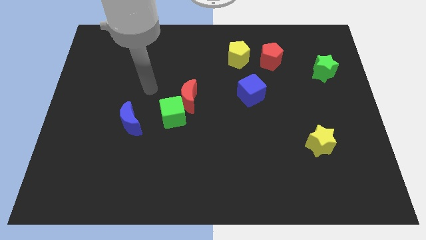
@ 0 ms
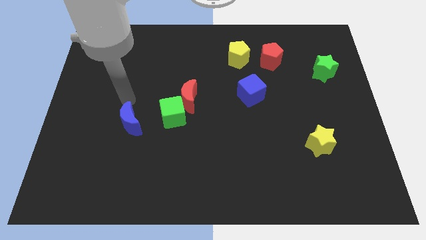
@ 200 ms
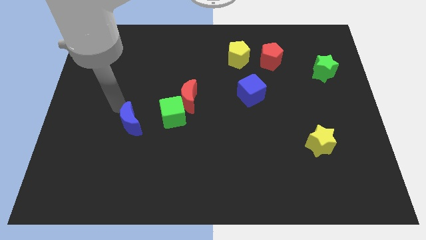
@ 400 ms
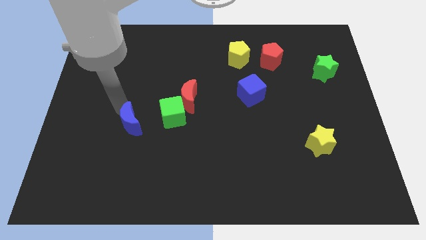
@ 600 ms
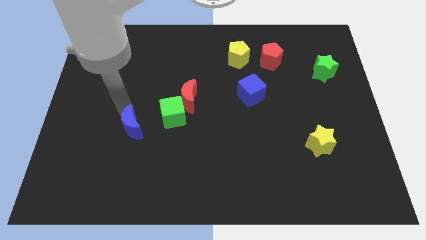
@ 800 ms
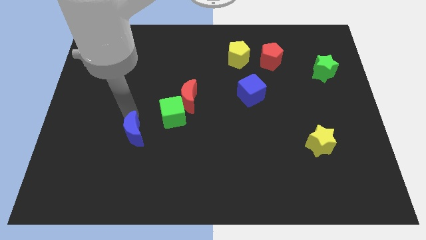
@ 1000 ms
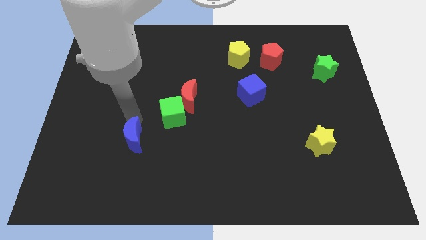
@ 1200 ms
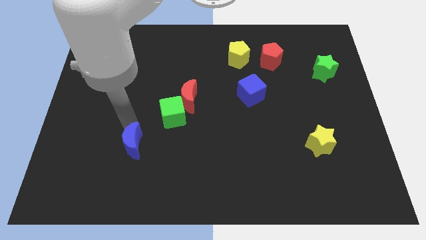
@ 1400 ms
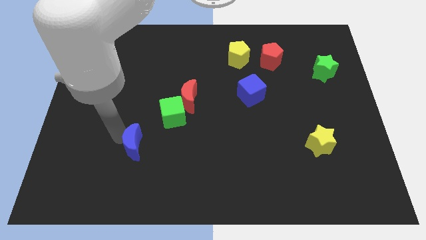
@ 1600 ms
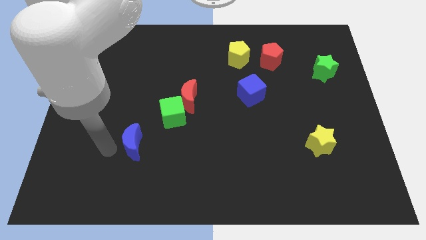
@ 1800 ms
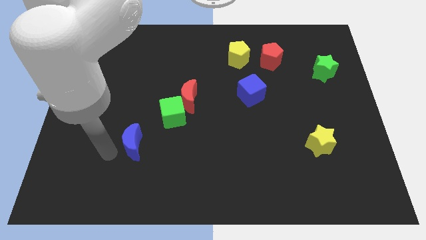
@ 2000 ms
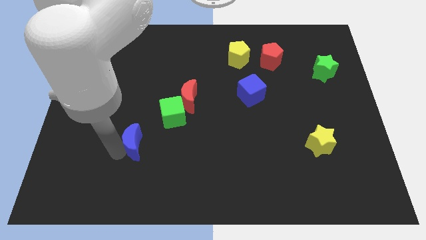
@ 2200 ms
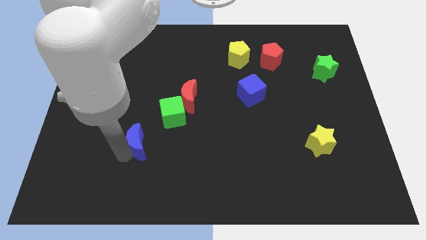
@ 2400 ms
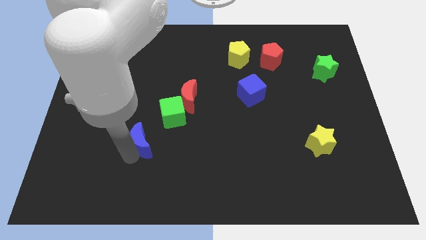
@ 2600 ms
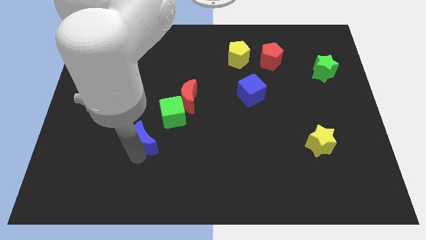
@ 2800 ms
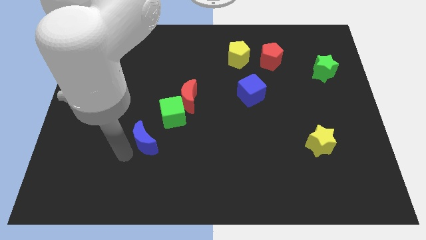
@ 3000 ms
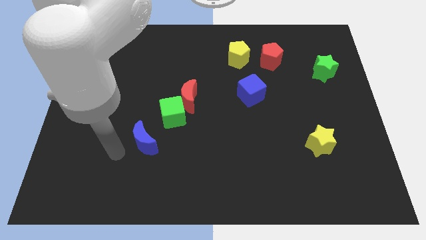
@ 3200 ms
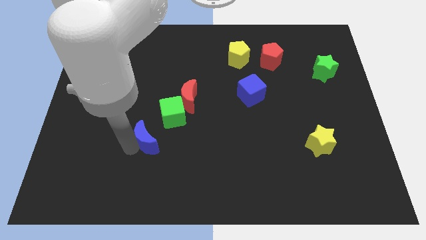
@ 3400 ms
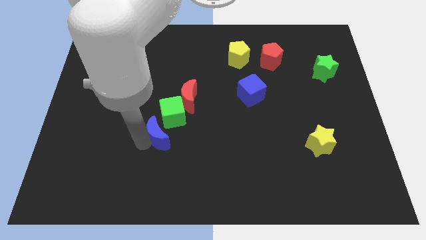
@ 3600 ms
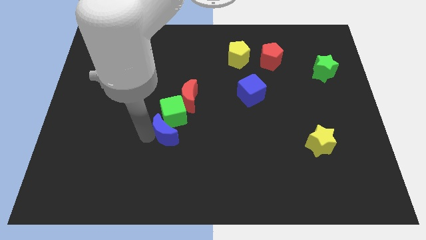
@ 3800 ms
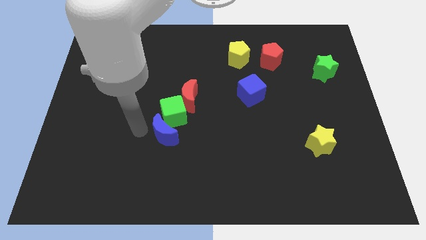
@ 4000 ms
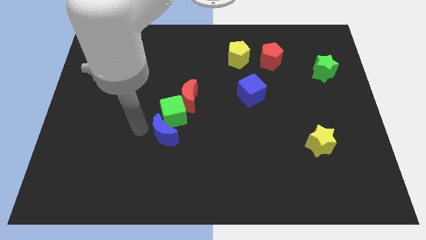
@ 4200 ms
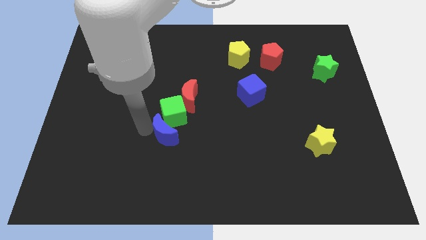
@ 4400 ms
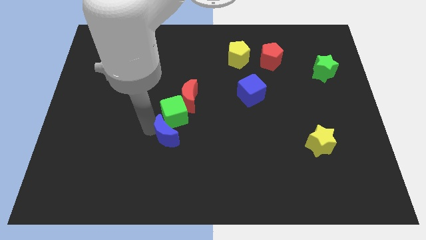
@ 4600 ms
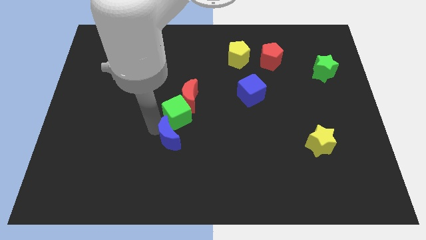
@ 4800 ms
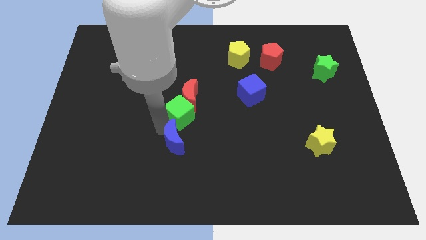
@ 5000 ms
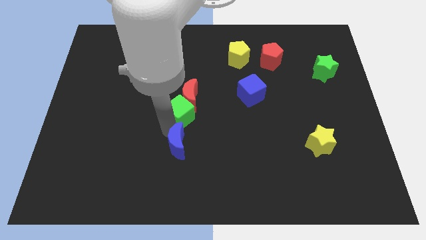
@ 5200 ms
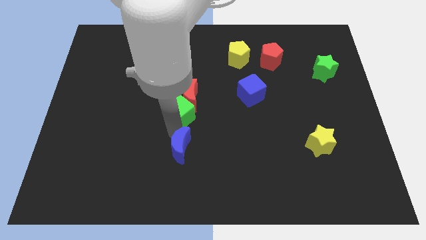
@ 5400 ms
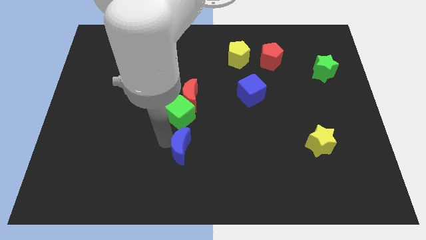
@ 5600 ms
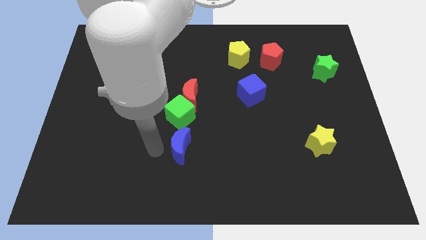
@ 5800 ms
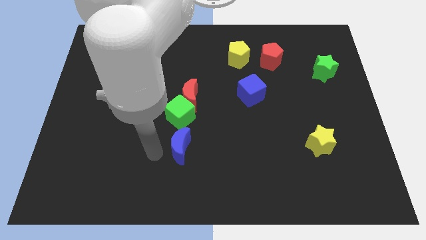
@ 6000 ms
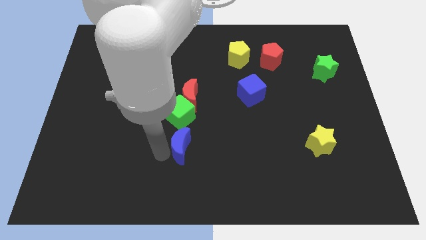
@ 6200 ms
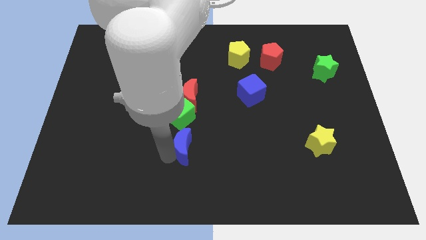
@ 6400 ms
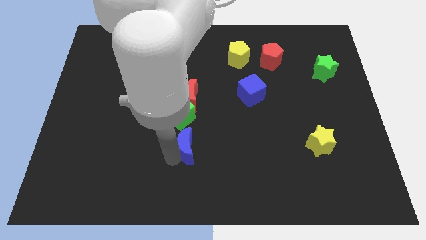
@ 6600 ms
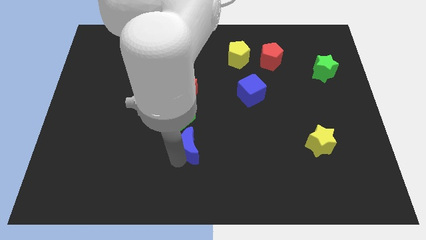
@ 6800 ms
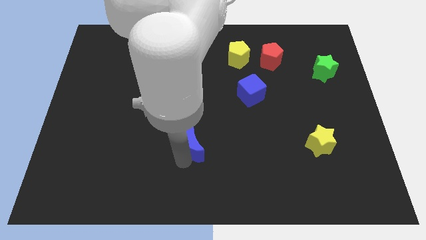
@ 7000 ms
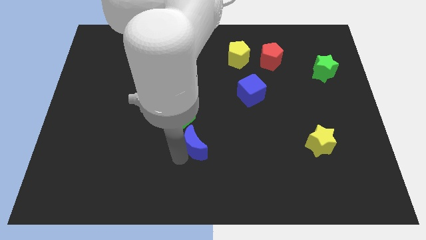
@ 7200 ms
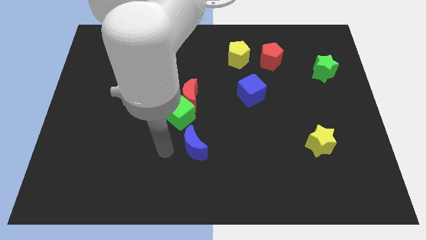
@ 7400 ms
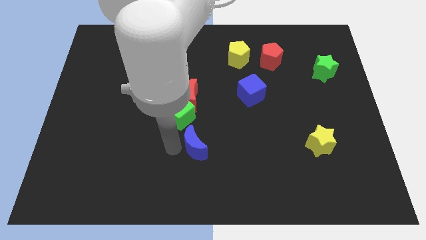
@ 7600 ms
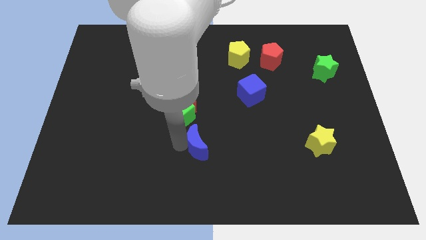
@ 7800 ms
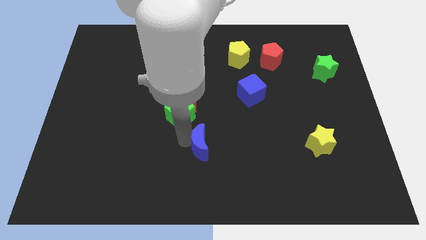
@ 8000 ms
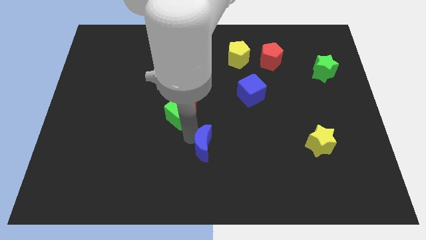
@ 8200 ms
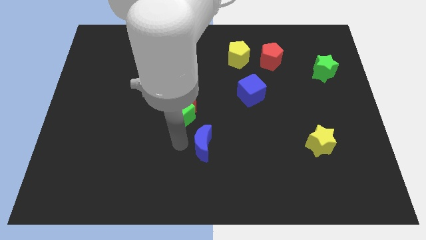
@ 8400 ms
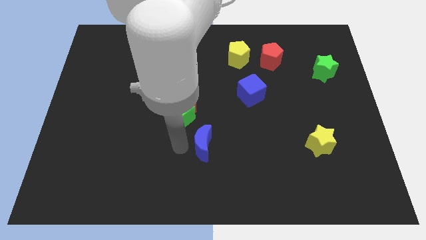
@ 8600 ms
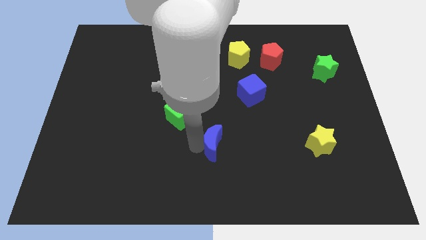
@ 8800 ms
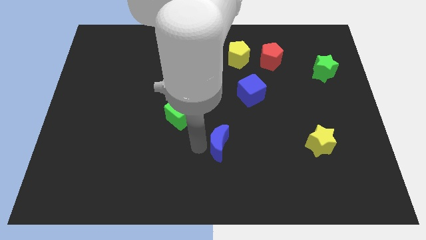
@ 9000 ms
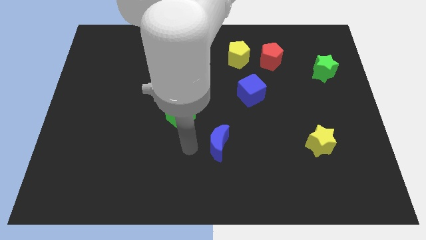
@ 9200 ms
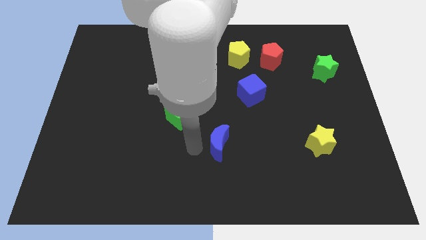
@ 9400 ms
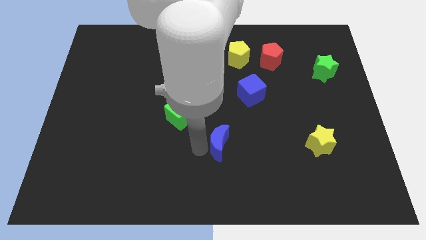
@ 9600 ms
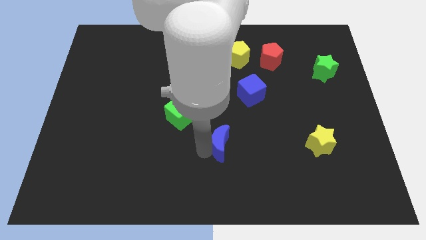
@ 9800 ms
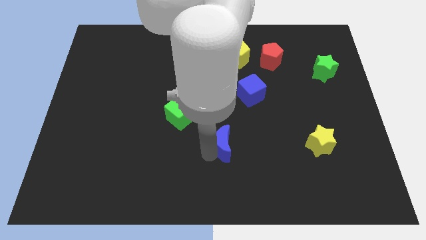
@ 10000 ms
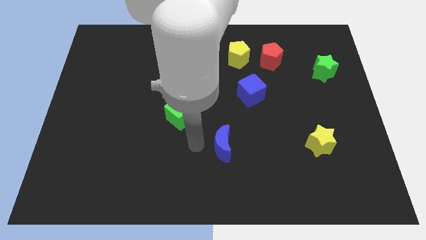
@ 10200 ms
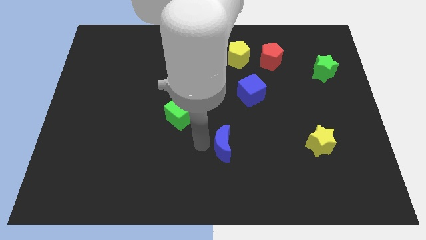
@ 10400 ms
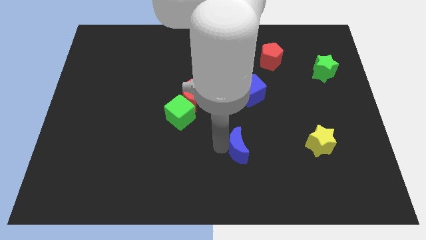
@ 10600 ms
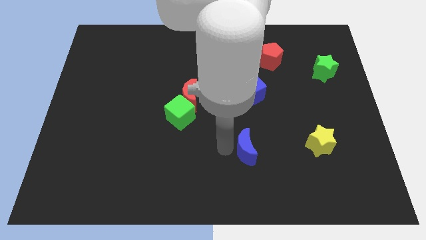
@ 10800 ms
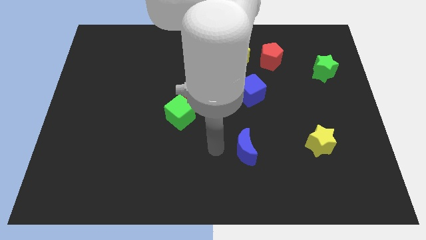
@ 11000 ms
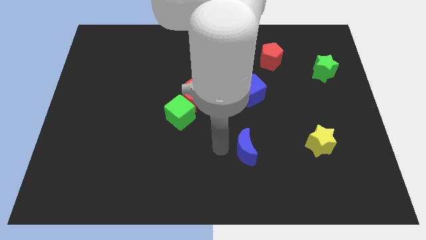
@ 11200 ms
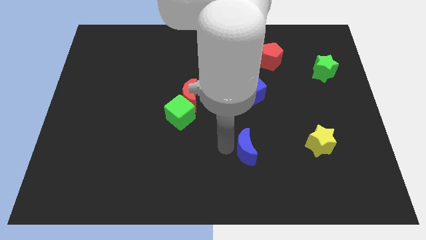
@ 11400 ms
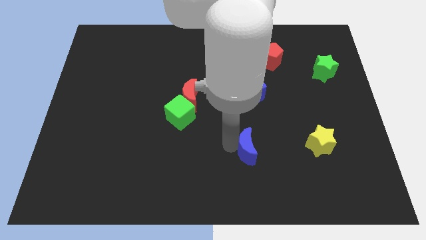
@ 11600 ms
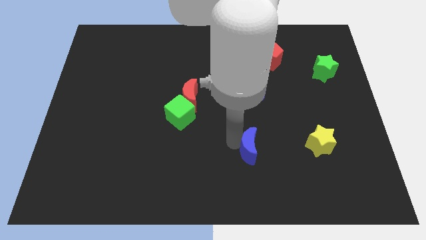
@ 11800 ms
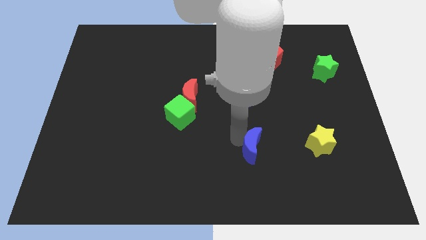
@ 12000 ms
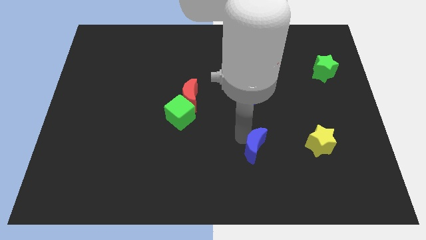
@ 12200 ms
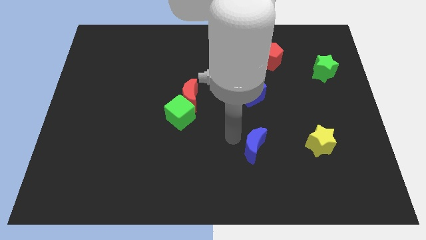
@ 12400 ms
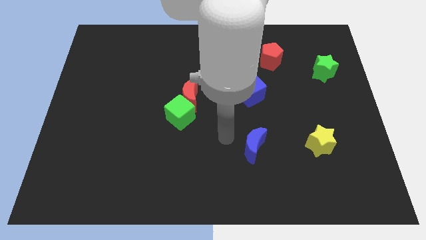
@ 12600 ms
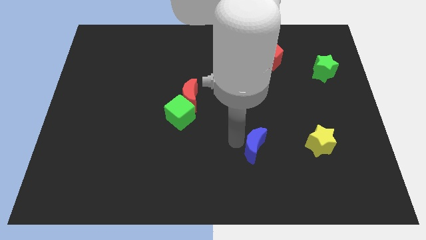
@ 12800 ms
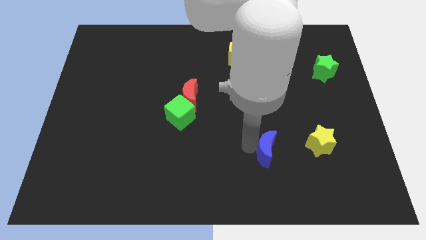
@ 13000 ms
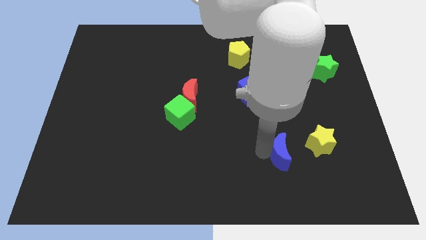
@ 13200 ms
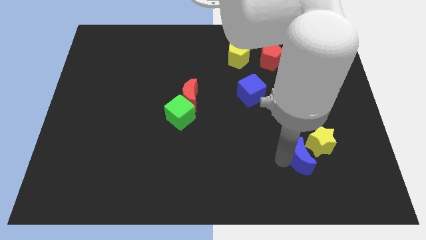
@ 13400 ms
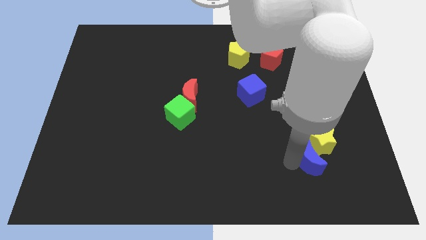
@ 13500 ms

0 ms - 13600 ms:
push the blue moon next to the yellow star
